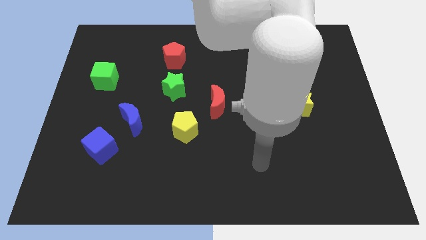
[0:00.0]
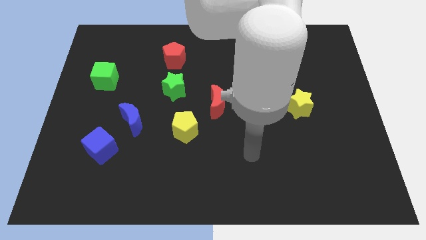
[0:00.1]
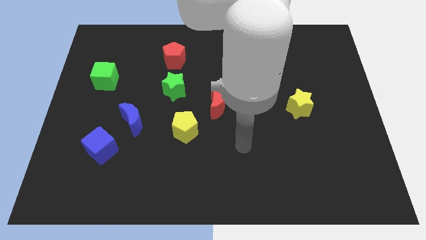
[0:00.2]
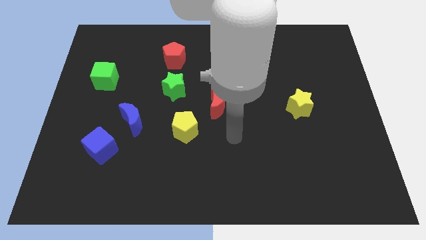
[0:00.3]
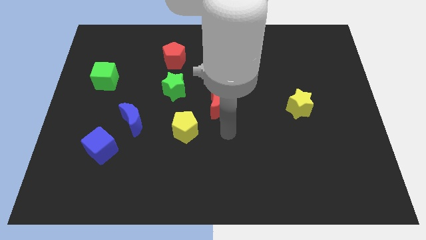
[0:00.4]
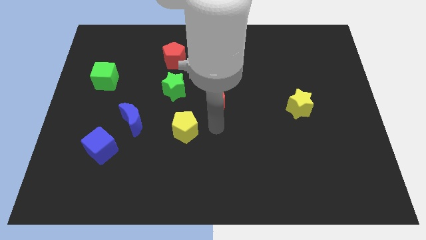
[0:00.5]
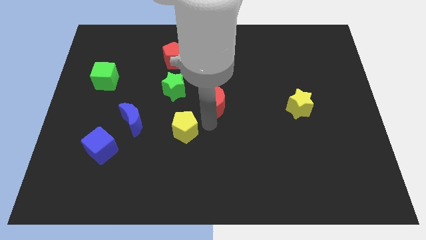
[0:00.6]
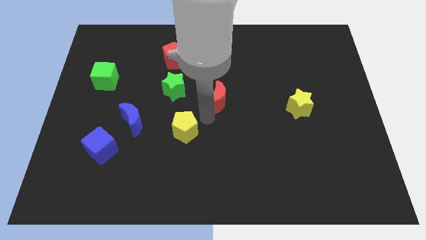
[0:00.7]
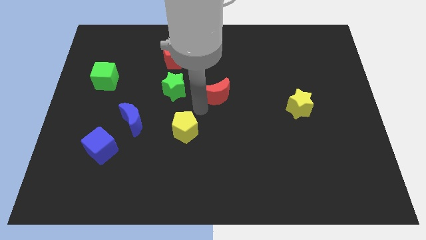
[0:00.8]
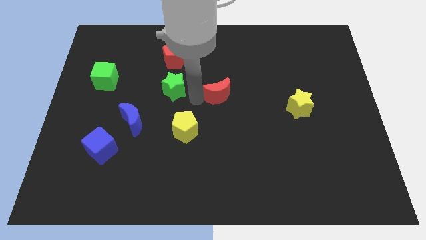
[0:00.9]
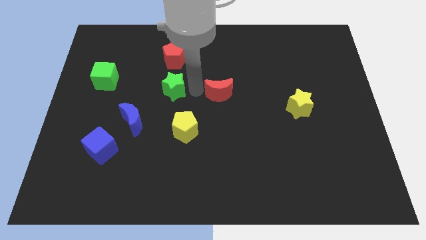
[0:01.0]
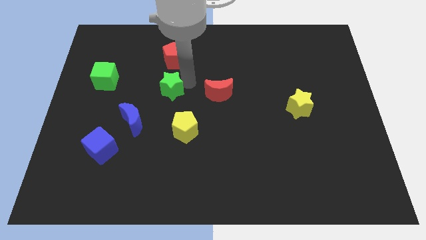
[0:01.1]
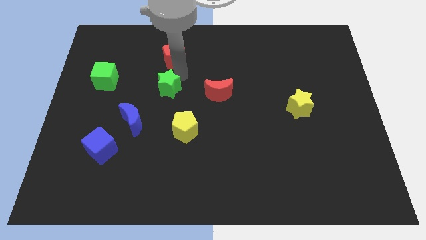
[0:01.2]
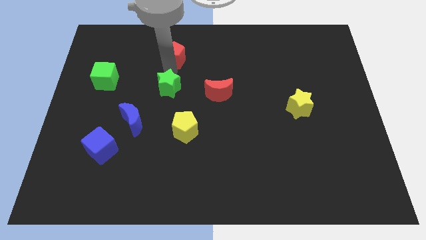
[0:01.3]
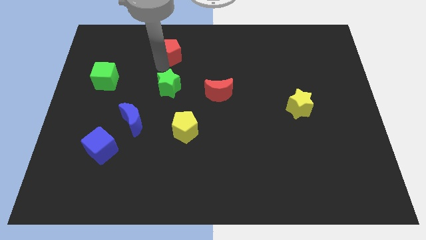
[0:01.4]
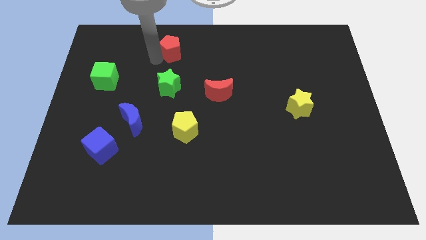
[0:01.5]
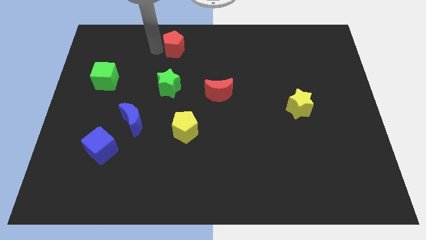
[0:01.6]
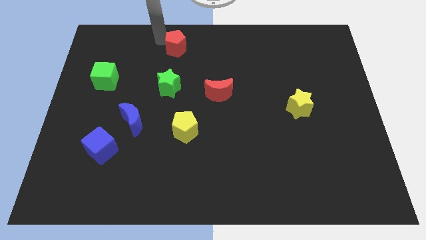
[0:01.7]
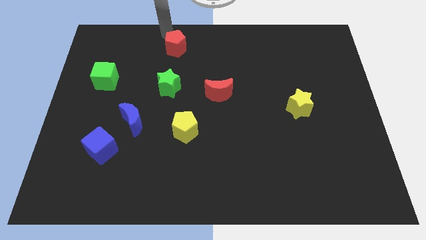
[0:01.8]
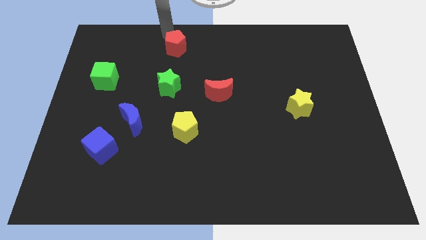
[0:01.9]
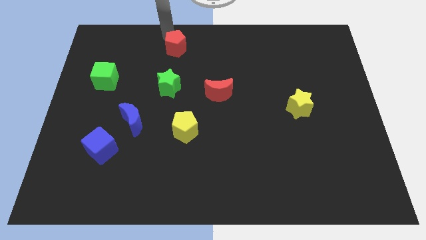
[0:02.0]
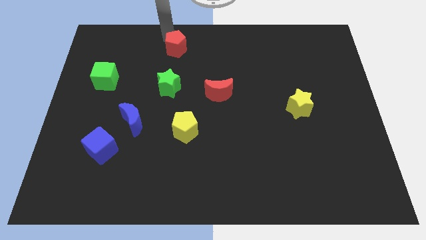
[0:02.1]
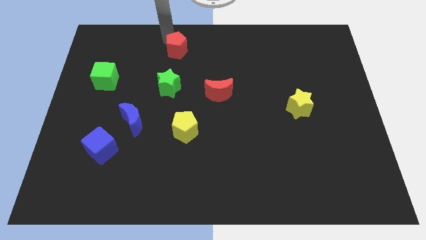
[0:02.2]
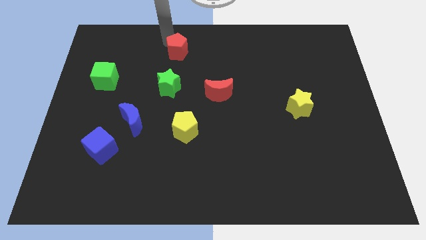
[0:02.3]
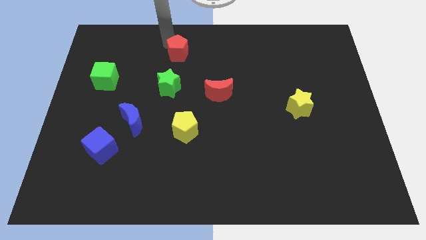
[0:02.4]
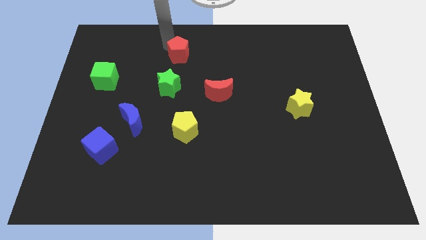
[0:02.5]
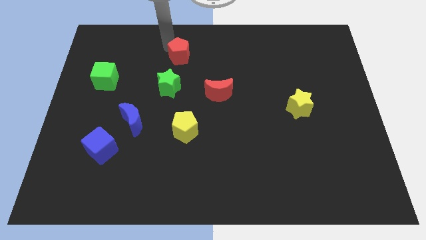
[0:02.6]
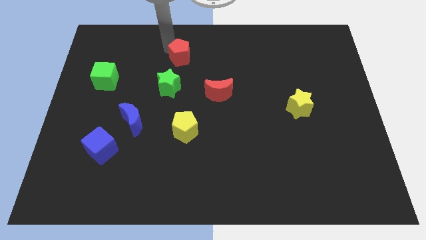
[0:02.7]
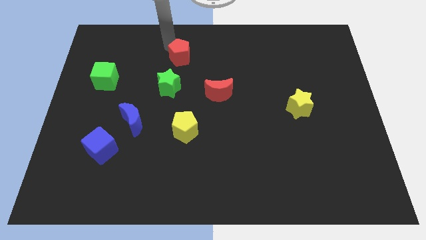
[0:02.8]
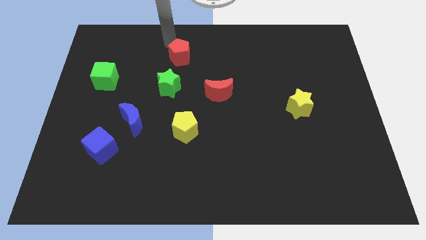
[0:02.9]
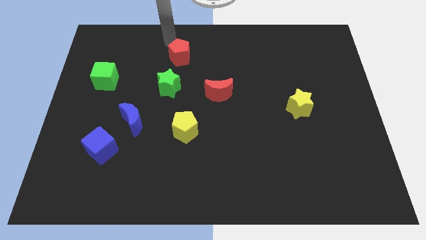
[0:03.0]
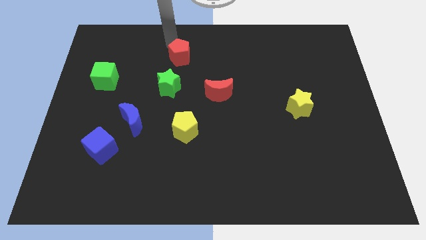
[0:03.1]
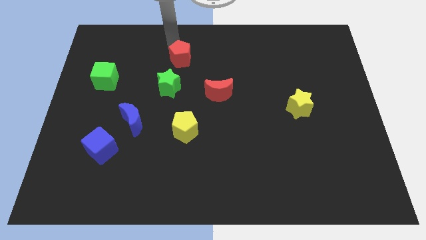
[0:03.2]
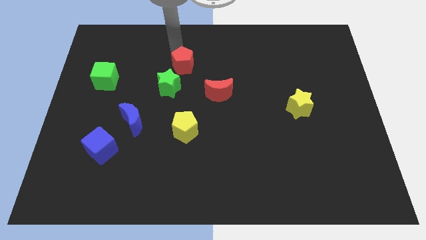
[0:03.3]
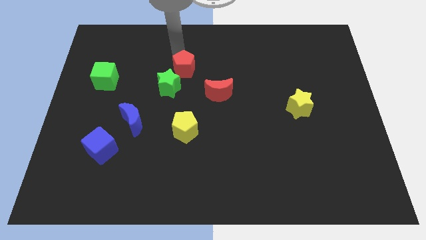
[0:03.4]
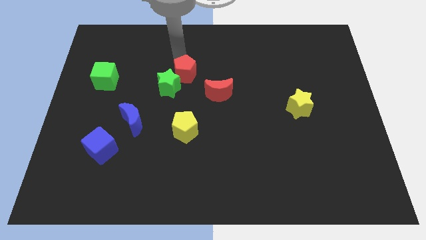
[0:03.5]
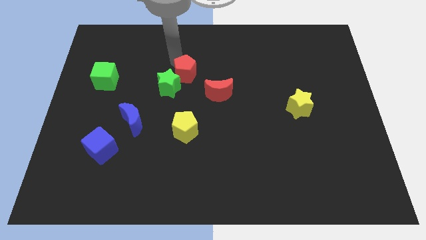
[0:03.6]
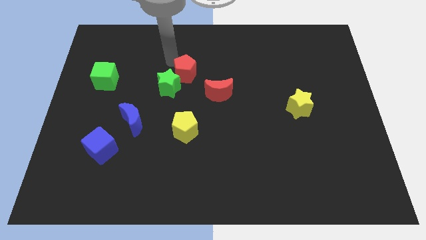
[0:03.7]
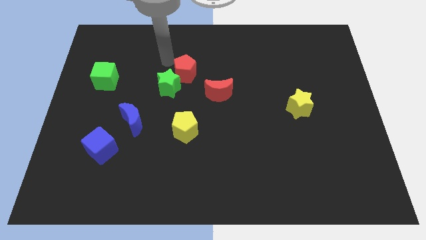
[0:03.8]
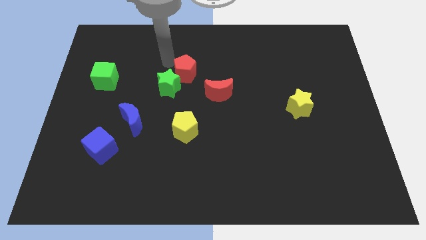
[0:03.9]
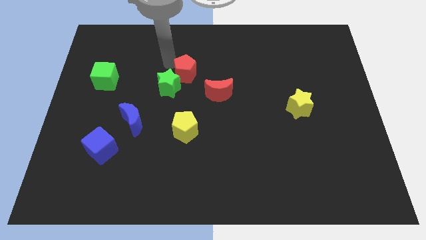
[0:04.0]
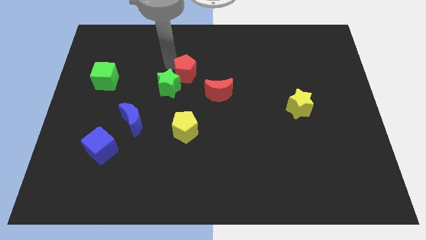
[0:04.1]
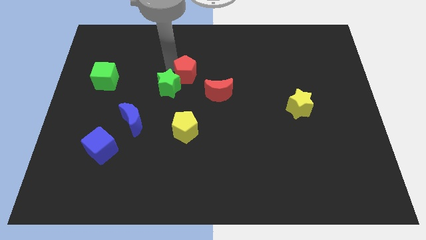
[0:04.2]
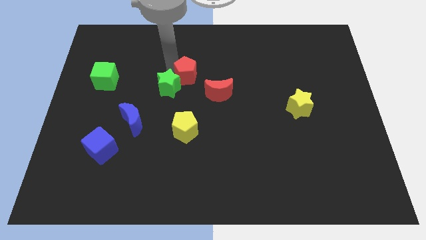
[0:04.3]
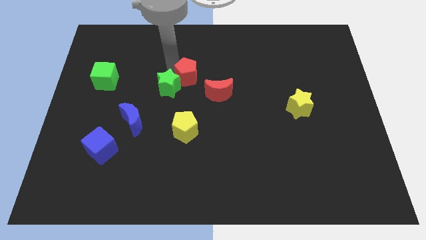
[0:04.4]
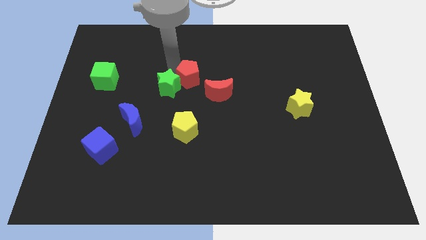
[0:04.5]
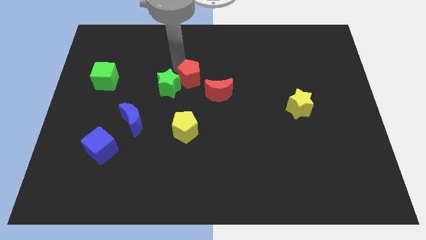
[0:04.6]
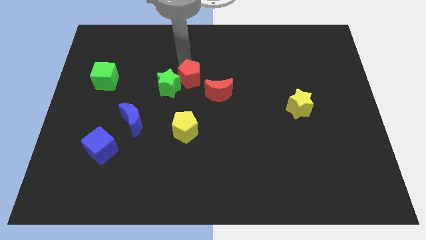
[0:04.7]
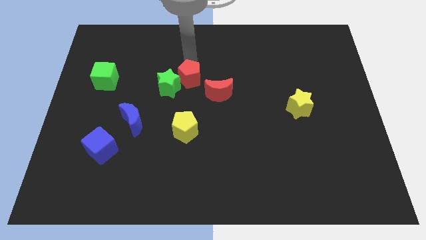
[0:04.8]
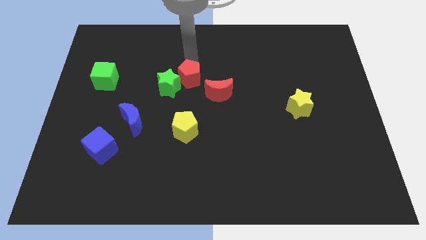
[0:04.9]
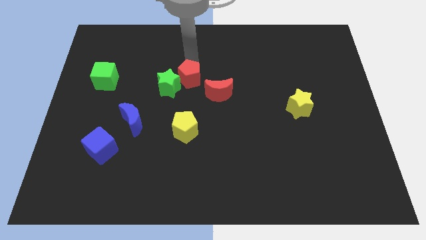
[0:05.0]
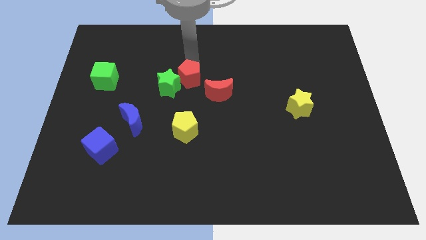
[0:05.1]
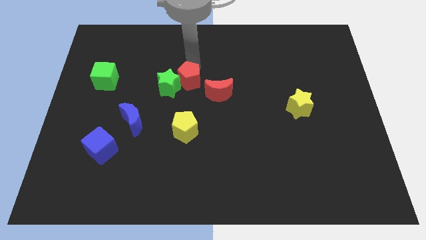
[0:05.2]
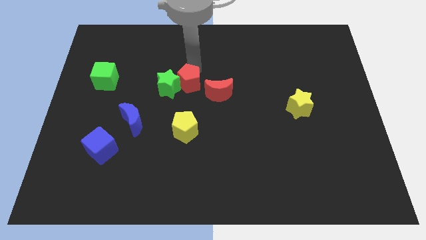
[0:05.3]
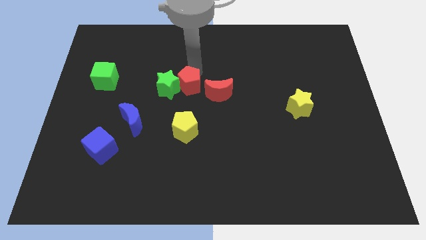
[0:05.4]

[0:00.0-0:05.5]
put the red pentagon diagonally down and to the right of the green star

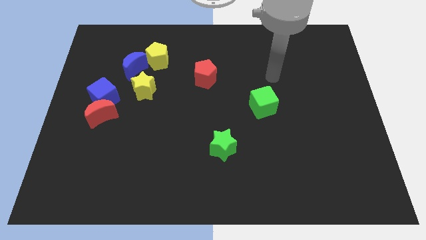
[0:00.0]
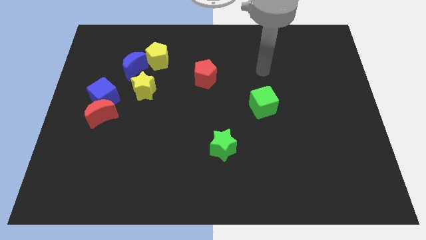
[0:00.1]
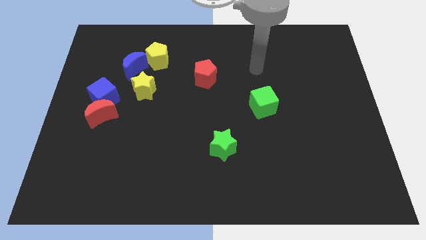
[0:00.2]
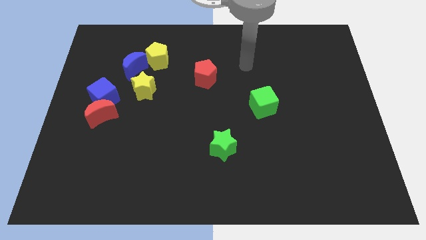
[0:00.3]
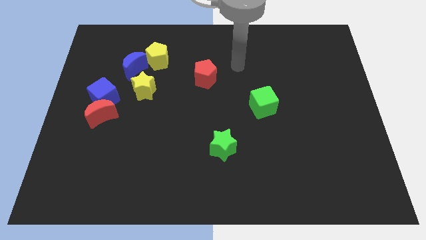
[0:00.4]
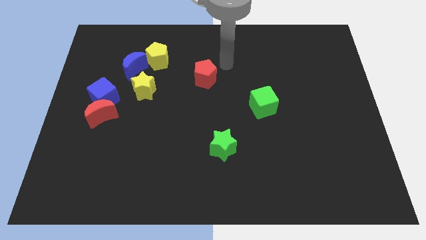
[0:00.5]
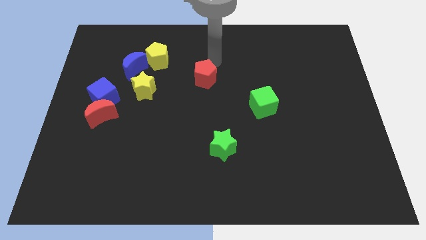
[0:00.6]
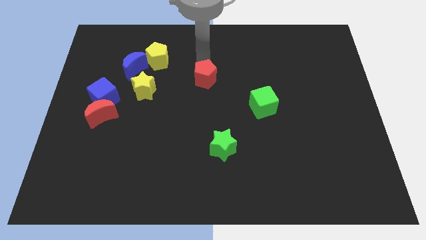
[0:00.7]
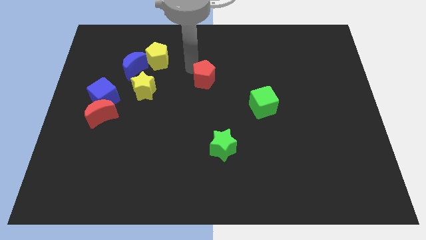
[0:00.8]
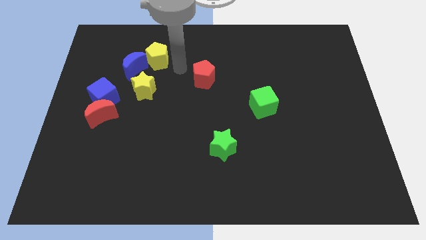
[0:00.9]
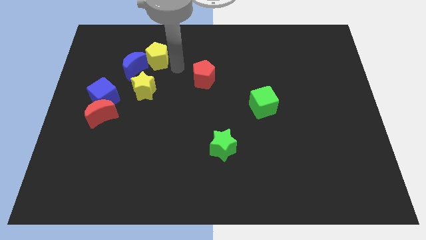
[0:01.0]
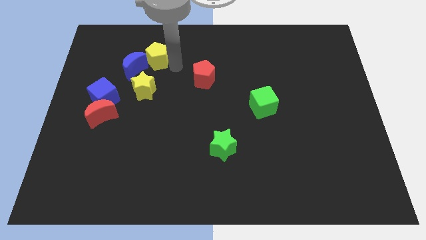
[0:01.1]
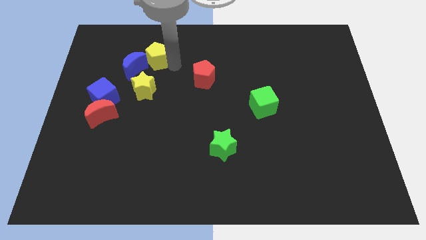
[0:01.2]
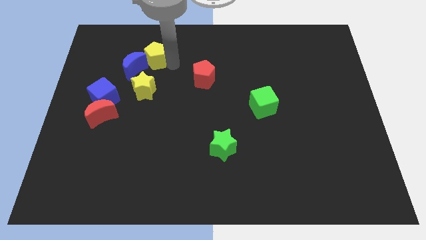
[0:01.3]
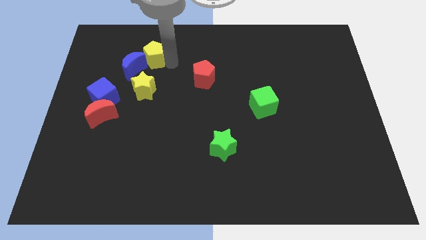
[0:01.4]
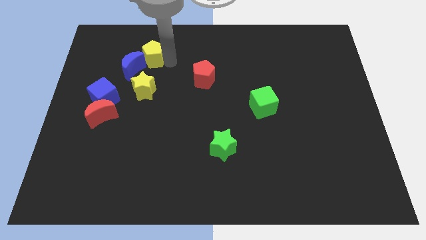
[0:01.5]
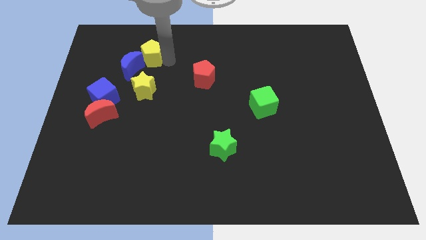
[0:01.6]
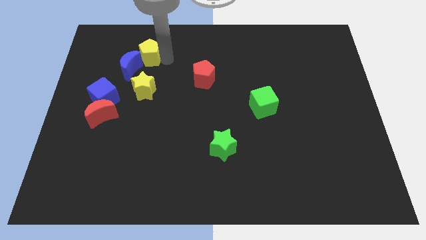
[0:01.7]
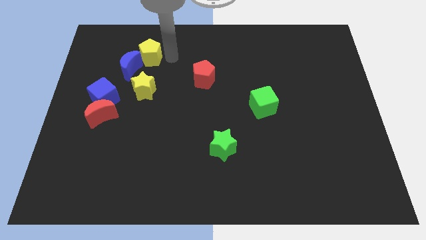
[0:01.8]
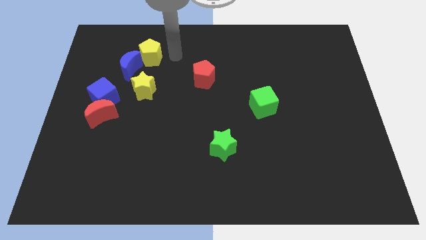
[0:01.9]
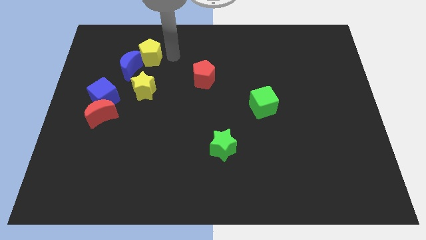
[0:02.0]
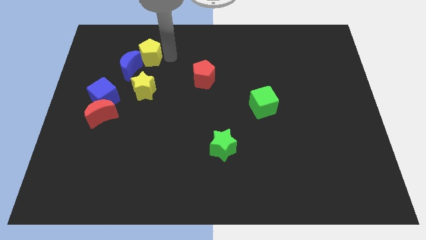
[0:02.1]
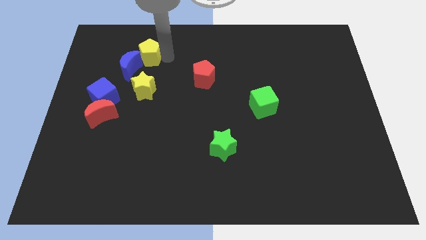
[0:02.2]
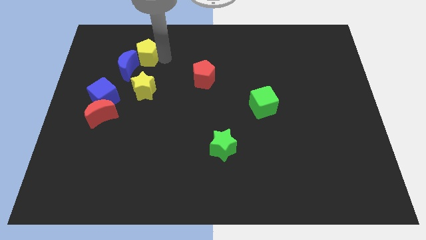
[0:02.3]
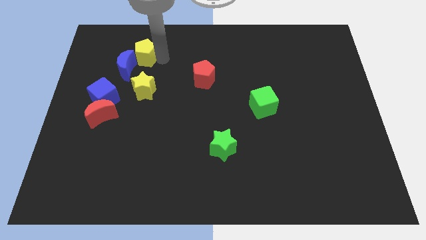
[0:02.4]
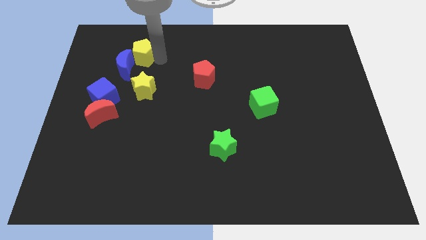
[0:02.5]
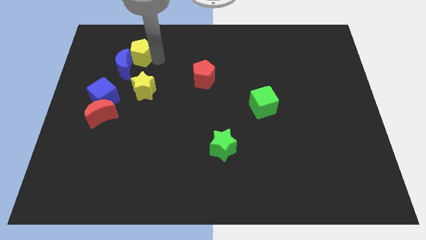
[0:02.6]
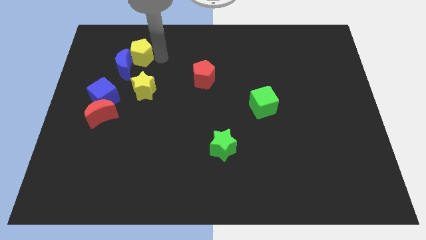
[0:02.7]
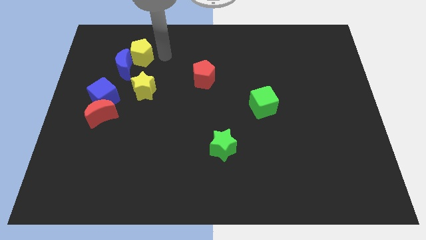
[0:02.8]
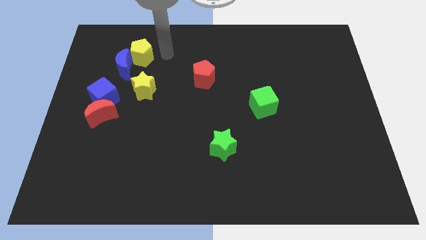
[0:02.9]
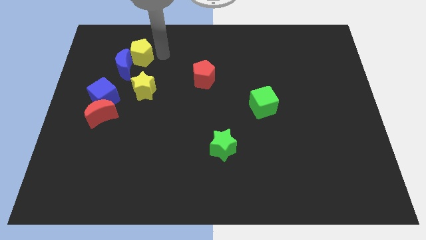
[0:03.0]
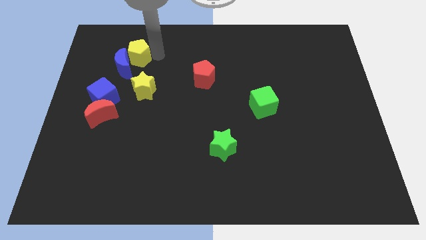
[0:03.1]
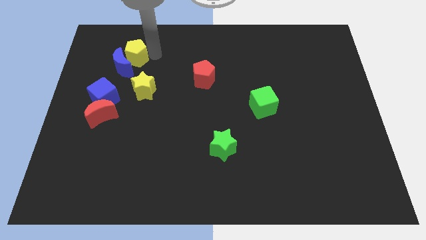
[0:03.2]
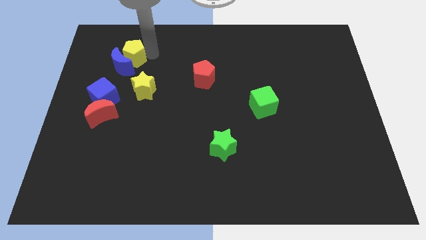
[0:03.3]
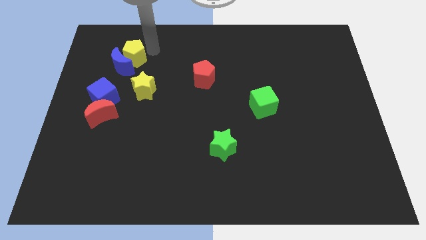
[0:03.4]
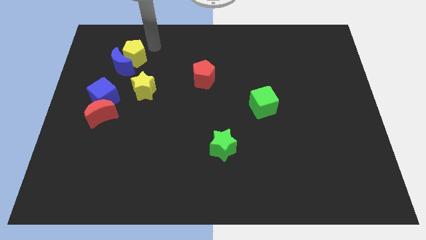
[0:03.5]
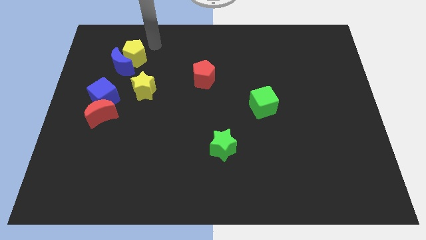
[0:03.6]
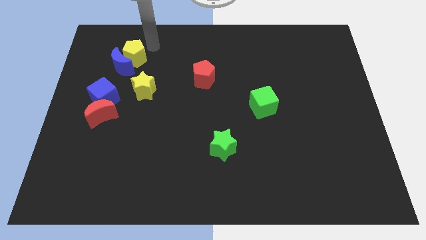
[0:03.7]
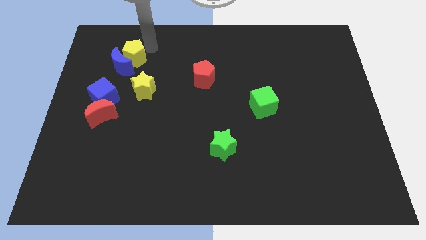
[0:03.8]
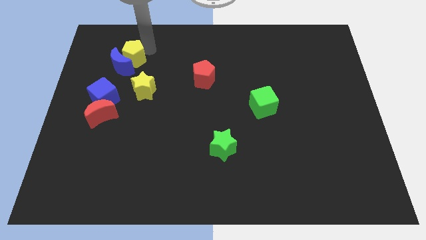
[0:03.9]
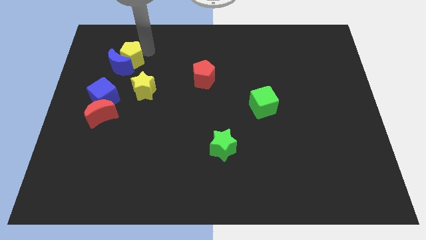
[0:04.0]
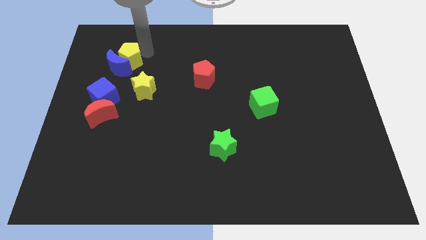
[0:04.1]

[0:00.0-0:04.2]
push the yellow pentagon diagonally up and to the left of the yellow star
